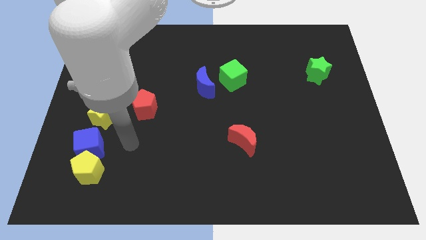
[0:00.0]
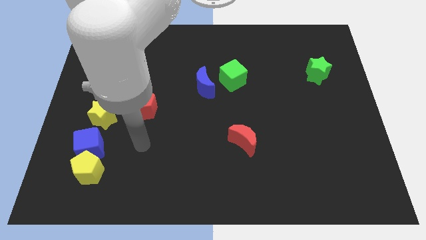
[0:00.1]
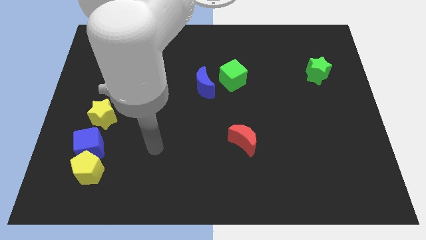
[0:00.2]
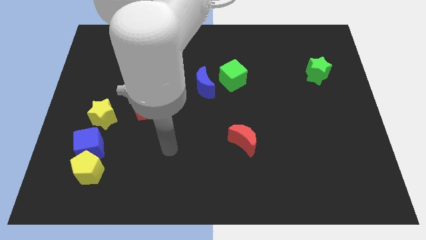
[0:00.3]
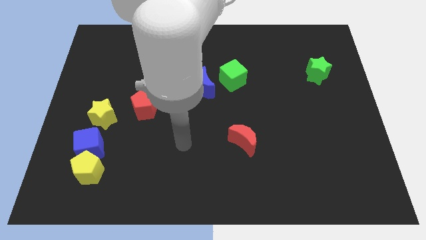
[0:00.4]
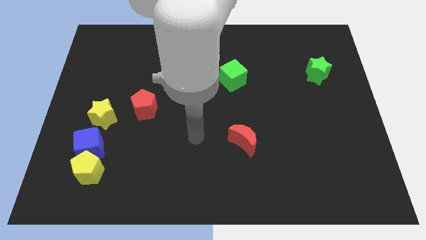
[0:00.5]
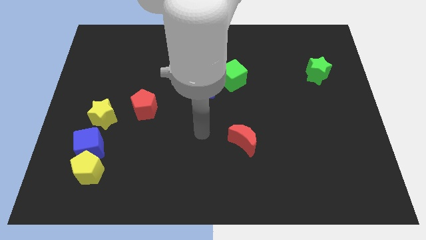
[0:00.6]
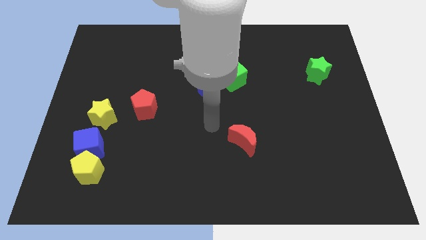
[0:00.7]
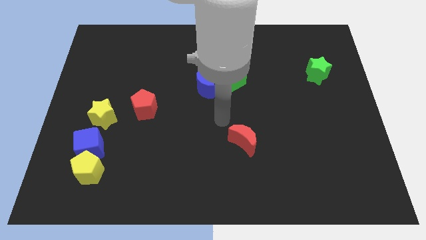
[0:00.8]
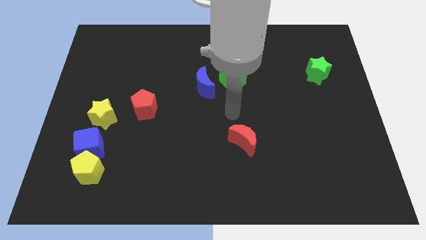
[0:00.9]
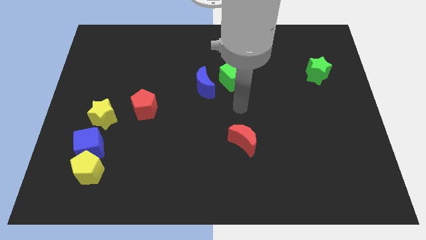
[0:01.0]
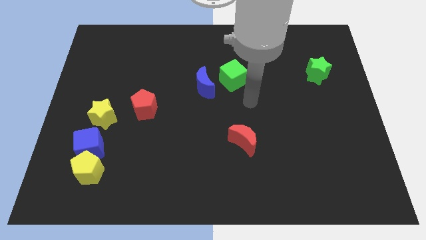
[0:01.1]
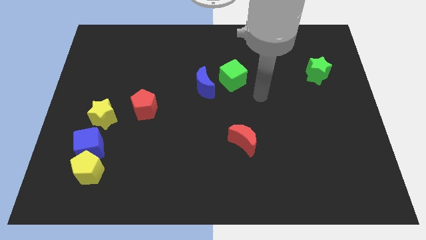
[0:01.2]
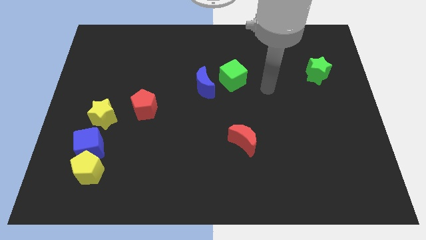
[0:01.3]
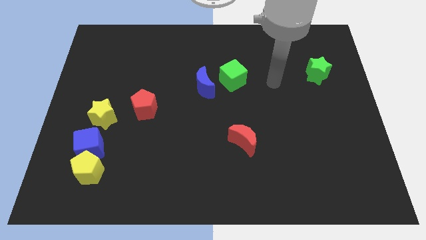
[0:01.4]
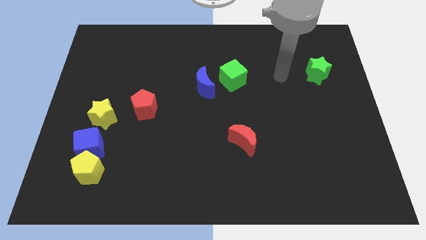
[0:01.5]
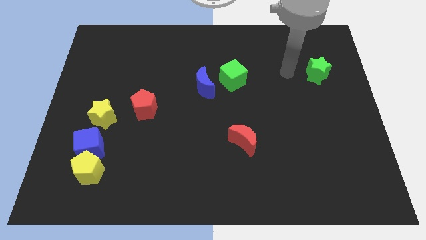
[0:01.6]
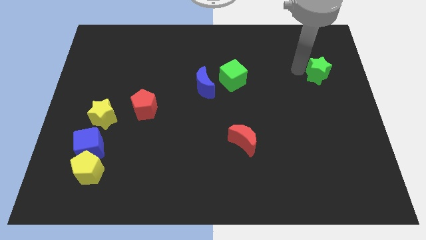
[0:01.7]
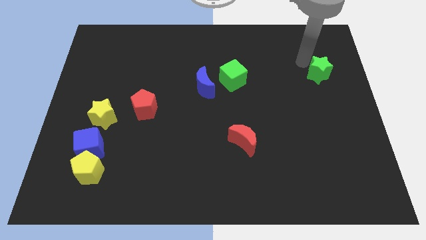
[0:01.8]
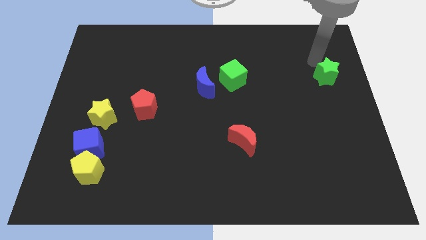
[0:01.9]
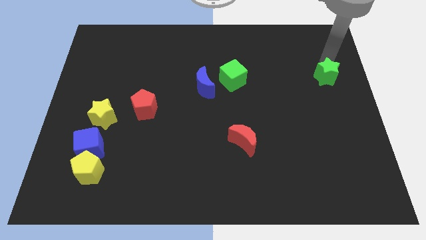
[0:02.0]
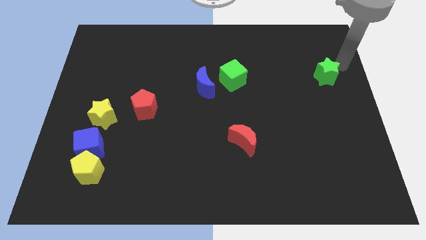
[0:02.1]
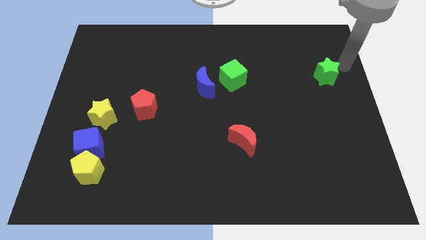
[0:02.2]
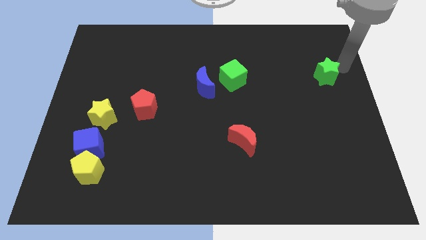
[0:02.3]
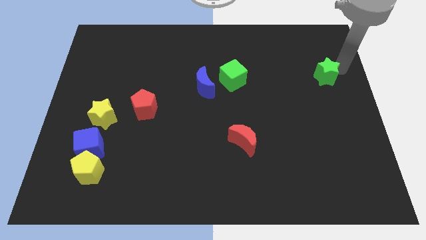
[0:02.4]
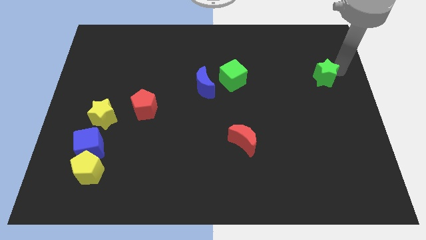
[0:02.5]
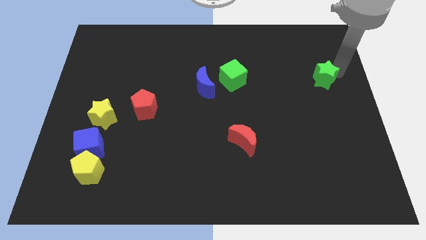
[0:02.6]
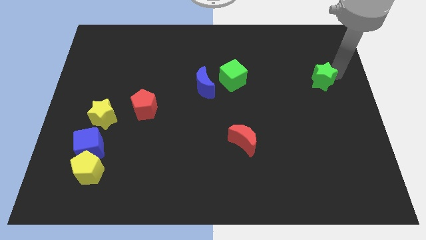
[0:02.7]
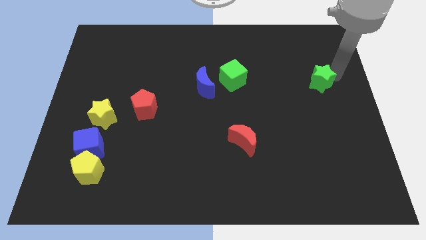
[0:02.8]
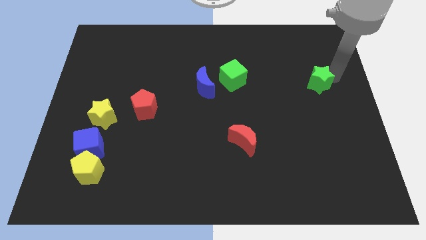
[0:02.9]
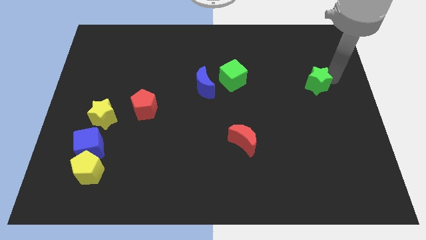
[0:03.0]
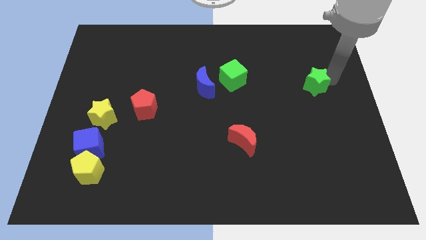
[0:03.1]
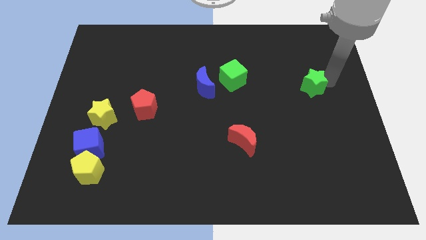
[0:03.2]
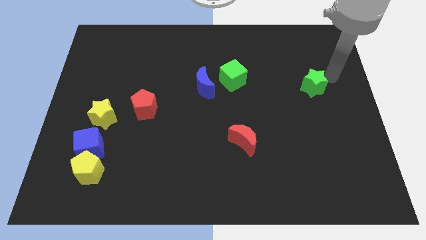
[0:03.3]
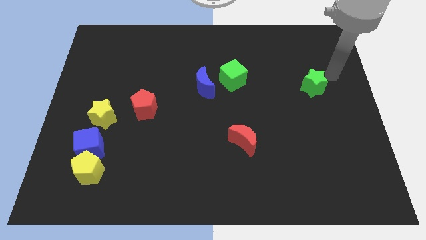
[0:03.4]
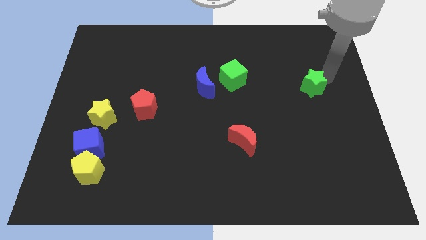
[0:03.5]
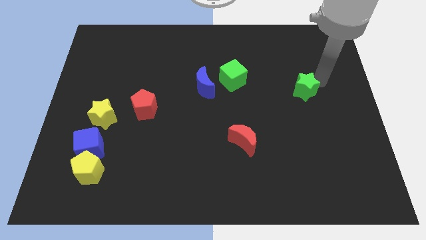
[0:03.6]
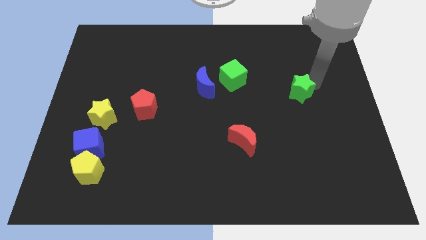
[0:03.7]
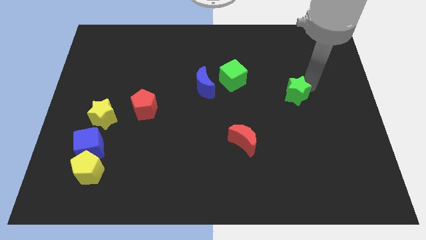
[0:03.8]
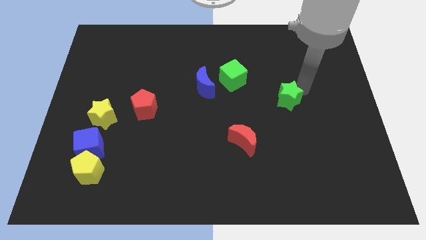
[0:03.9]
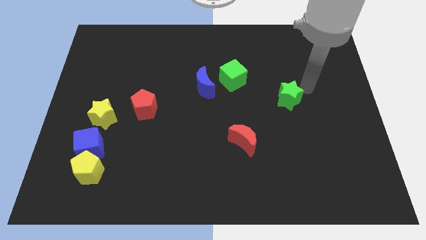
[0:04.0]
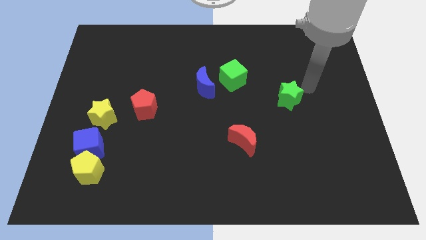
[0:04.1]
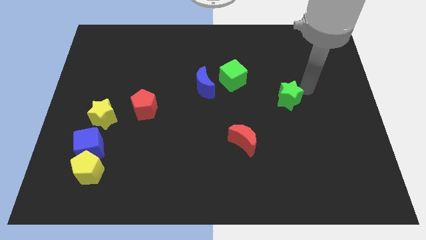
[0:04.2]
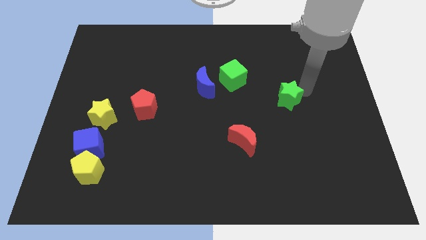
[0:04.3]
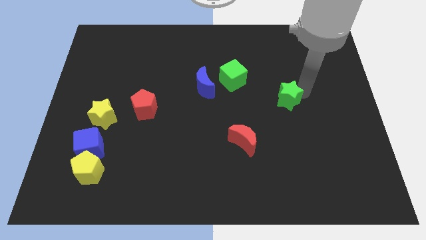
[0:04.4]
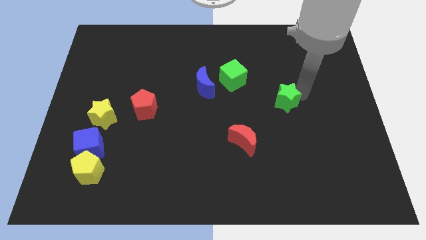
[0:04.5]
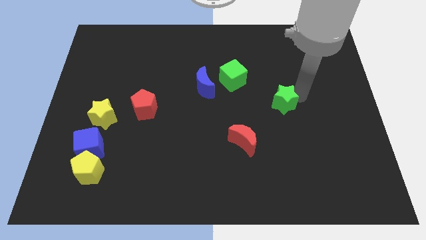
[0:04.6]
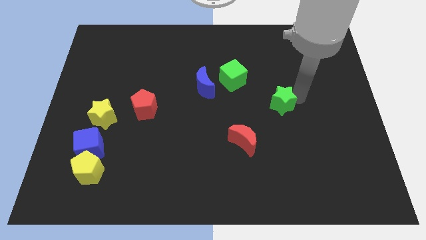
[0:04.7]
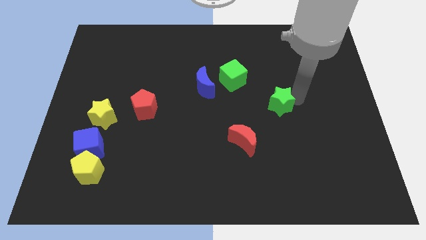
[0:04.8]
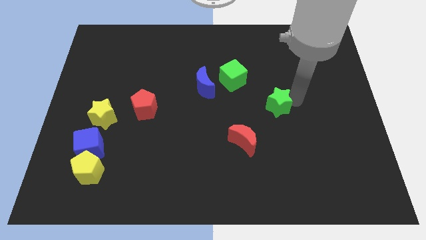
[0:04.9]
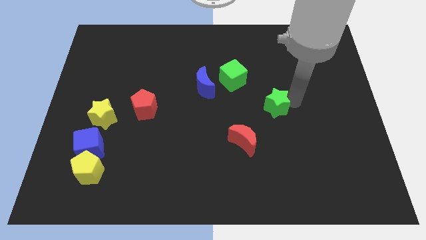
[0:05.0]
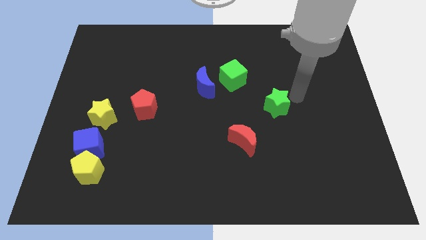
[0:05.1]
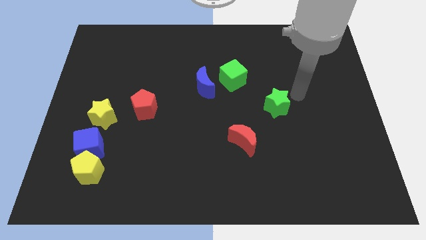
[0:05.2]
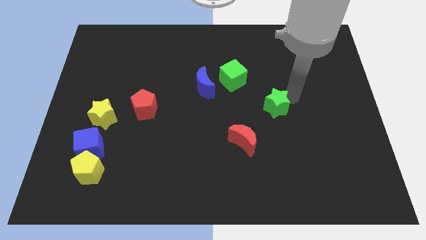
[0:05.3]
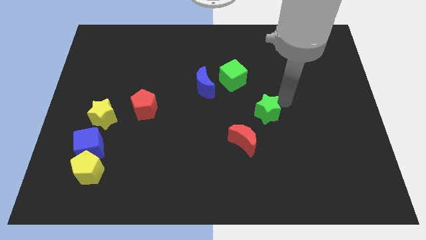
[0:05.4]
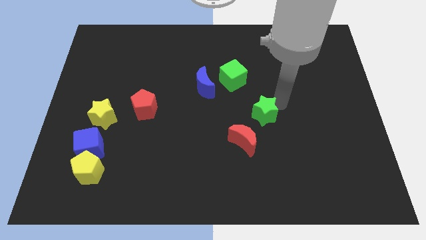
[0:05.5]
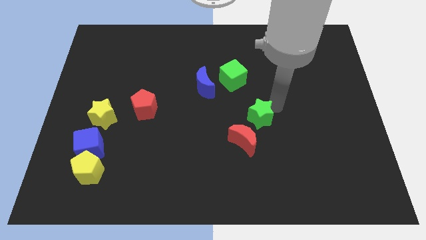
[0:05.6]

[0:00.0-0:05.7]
slide the green star diagonally down and left

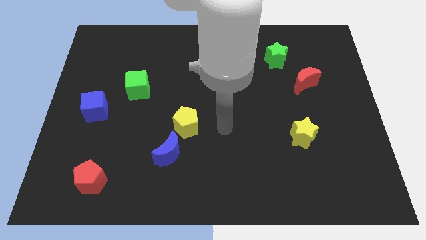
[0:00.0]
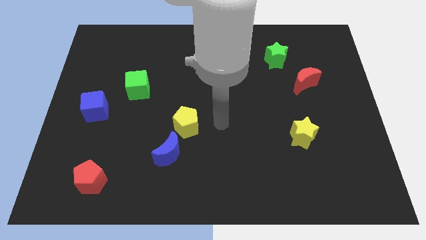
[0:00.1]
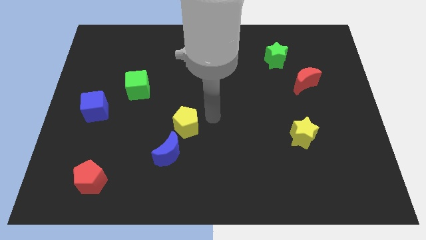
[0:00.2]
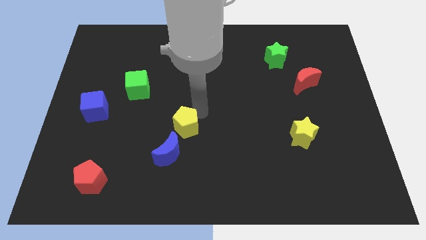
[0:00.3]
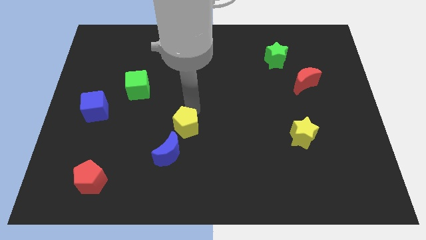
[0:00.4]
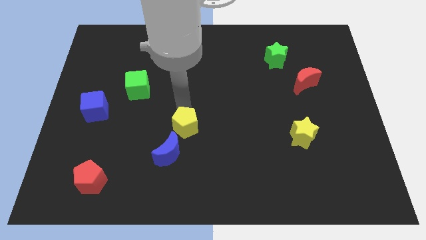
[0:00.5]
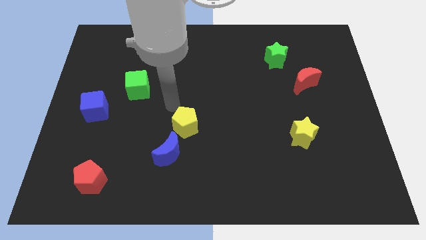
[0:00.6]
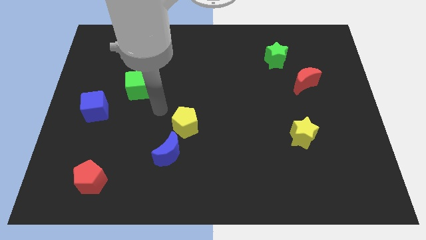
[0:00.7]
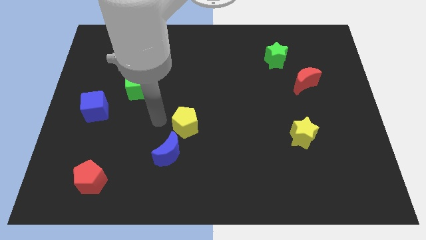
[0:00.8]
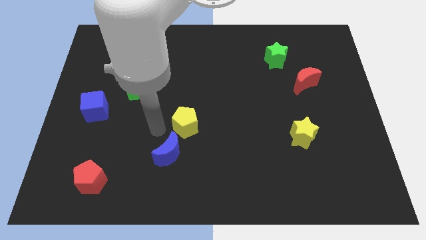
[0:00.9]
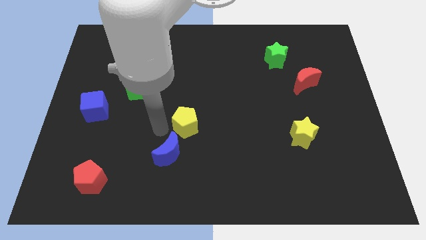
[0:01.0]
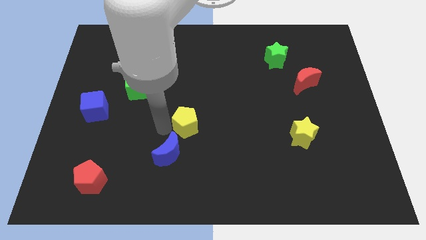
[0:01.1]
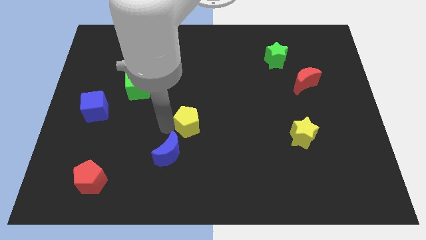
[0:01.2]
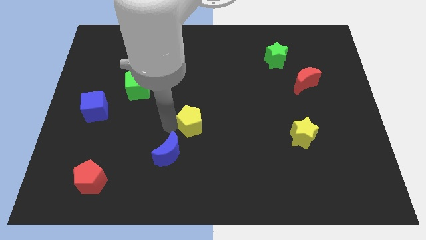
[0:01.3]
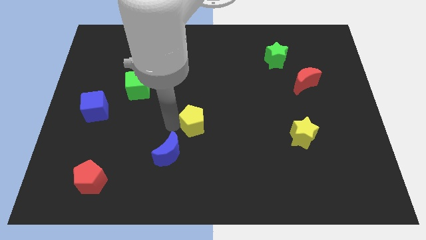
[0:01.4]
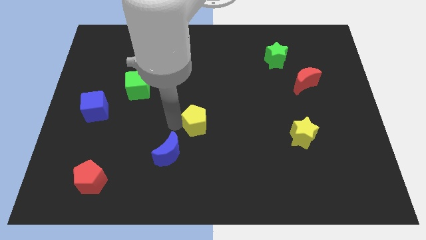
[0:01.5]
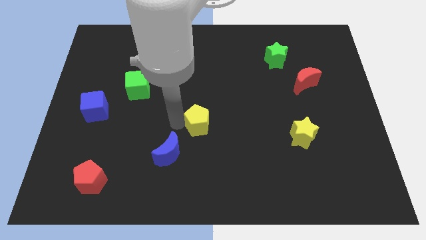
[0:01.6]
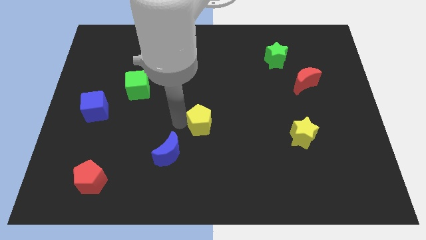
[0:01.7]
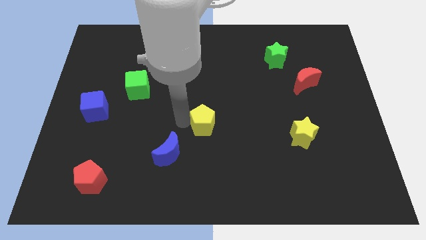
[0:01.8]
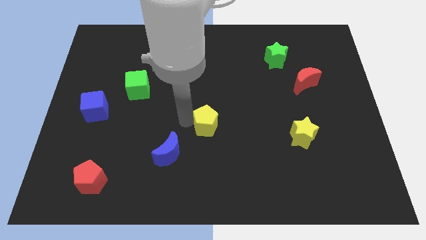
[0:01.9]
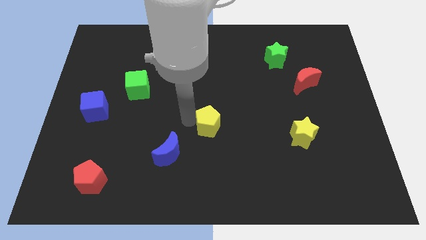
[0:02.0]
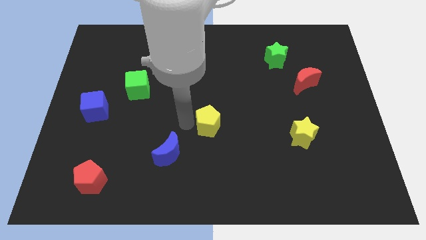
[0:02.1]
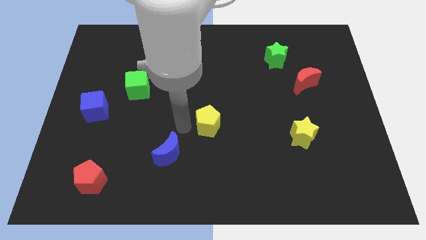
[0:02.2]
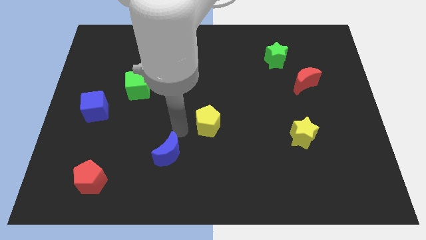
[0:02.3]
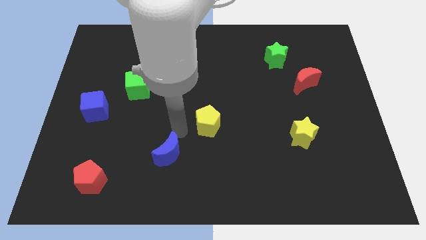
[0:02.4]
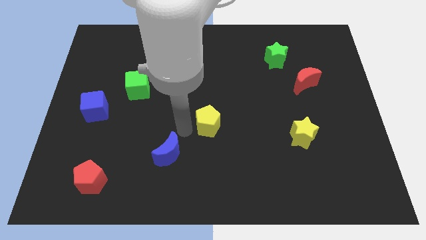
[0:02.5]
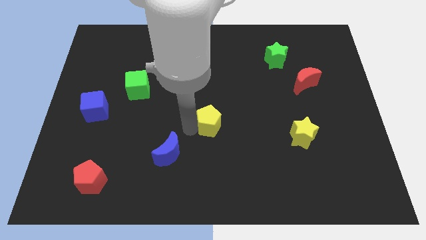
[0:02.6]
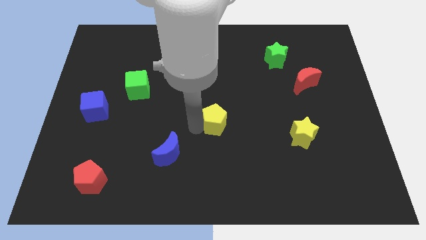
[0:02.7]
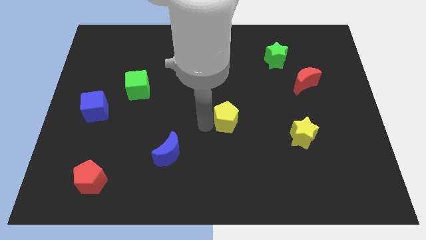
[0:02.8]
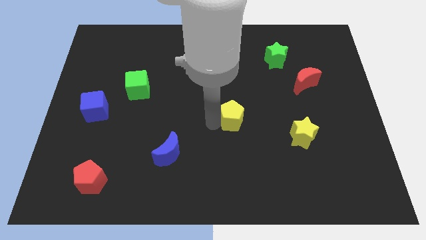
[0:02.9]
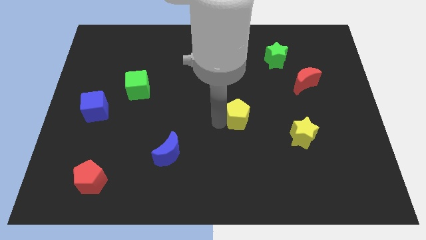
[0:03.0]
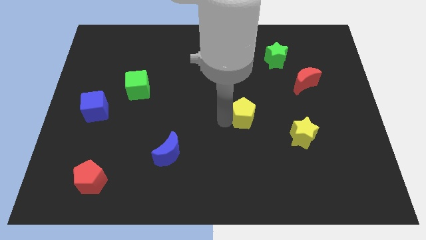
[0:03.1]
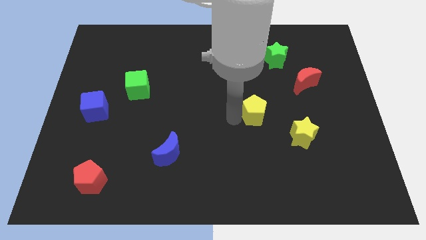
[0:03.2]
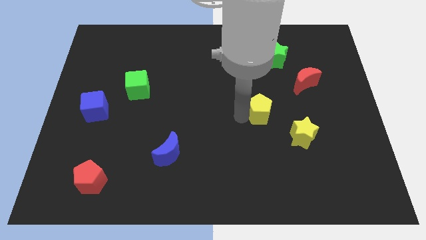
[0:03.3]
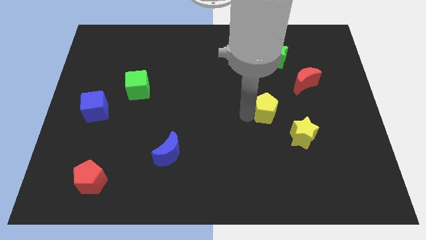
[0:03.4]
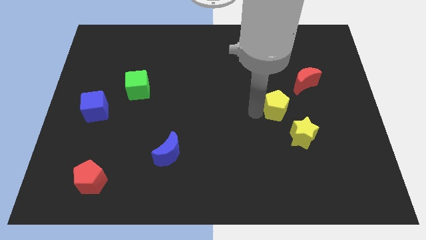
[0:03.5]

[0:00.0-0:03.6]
slide the yellow pentagon right
